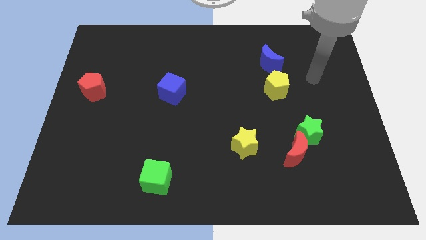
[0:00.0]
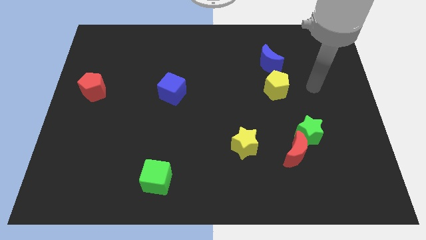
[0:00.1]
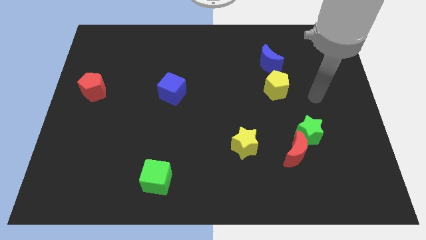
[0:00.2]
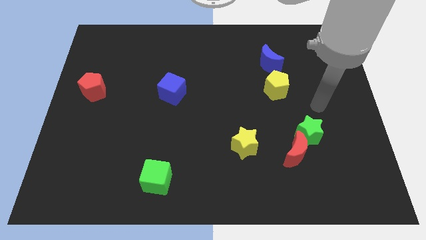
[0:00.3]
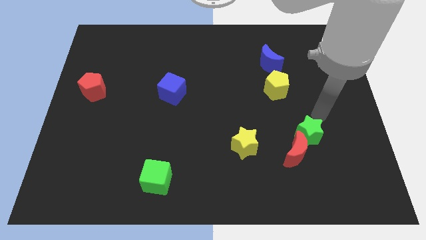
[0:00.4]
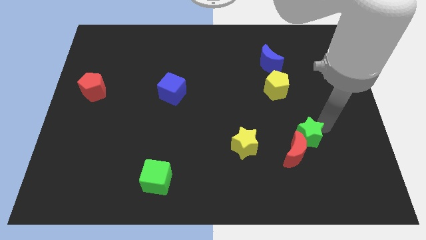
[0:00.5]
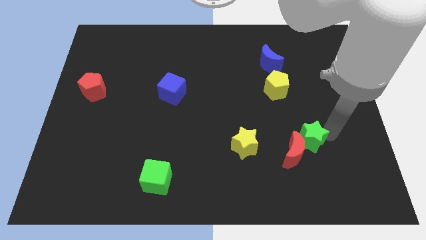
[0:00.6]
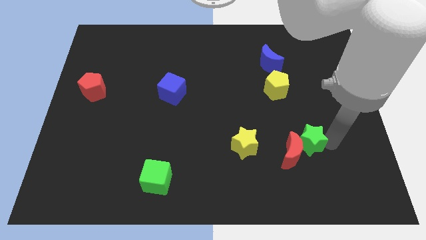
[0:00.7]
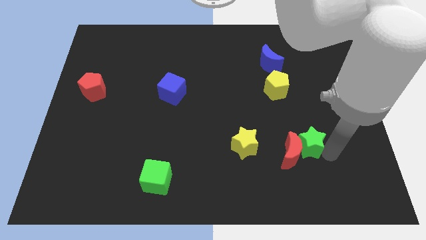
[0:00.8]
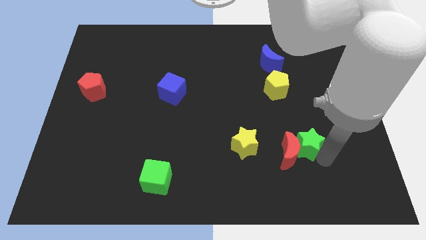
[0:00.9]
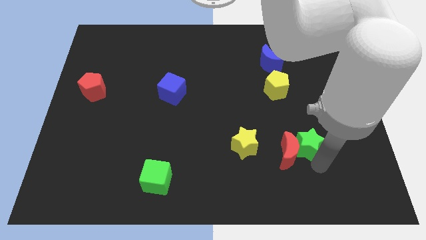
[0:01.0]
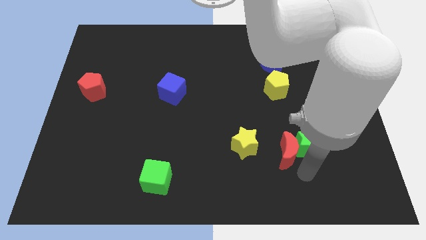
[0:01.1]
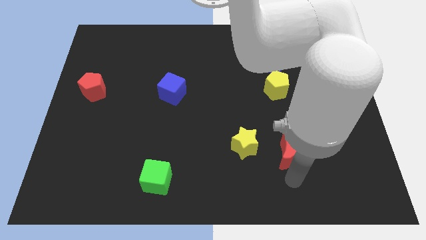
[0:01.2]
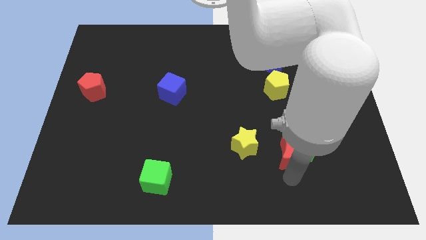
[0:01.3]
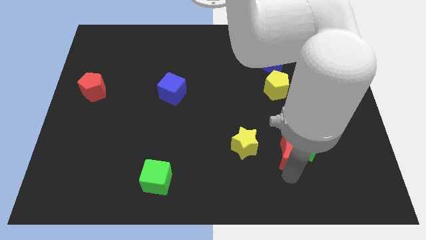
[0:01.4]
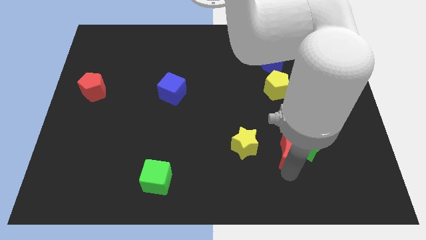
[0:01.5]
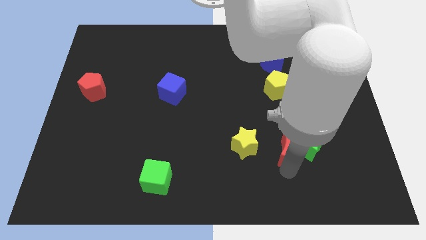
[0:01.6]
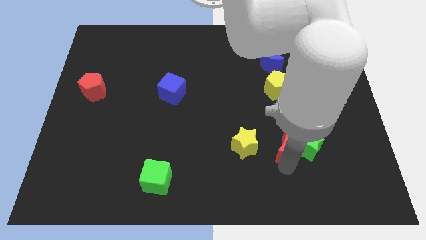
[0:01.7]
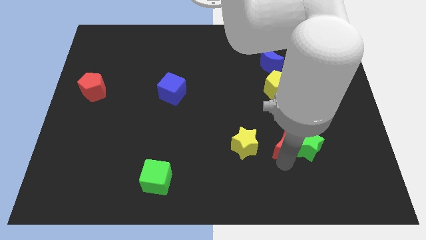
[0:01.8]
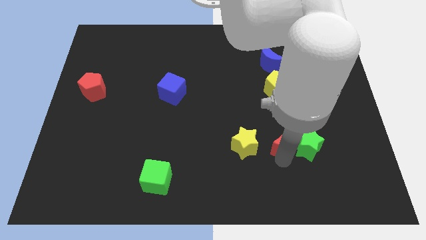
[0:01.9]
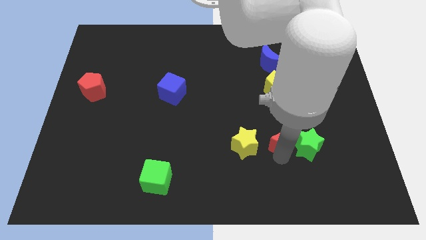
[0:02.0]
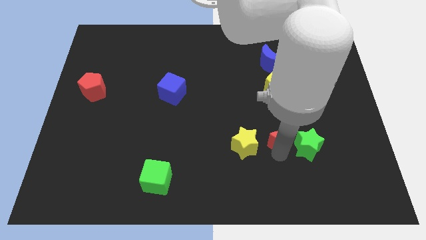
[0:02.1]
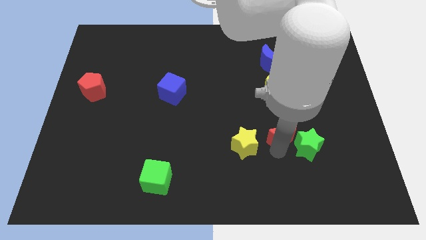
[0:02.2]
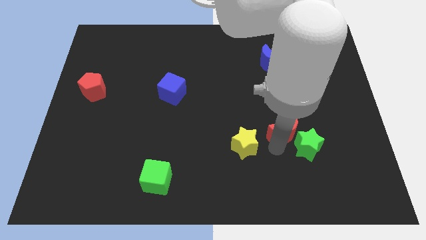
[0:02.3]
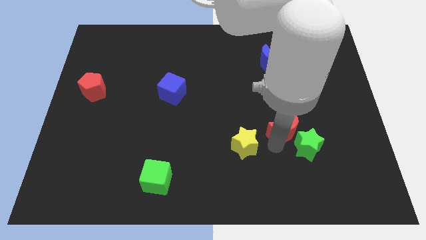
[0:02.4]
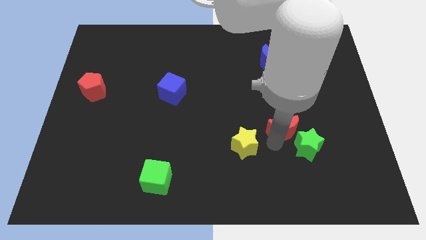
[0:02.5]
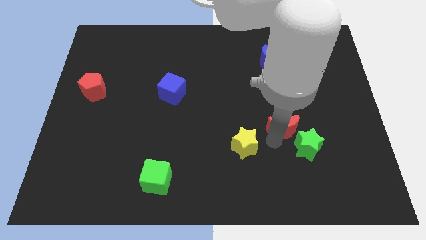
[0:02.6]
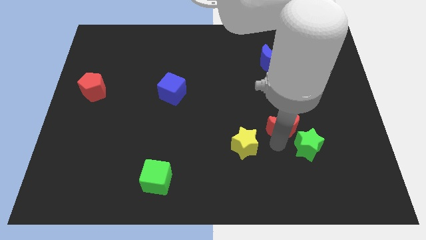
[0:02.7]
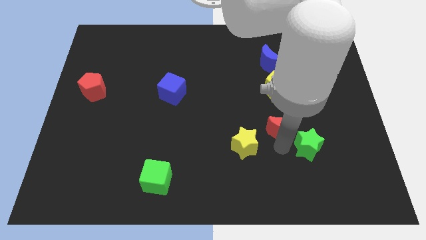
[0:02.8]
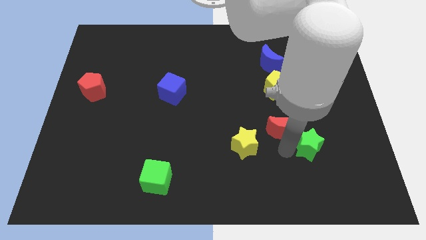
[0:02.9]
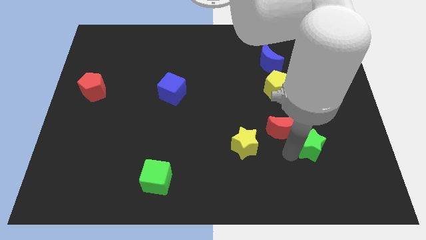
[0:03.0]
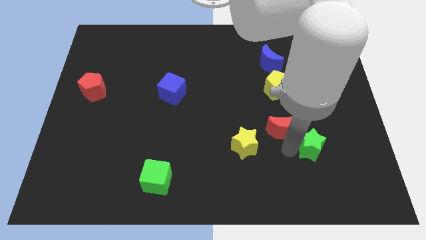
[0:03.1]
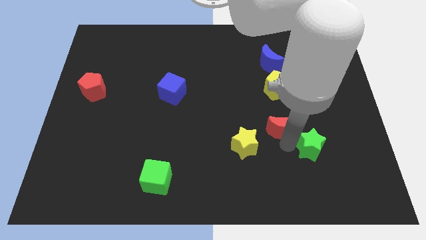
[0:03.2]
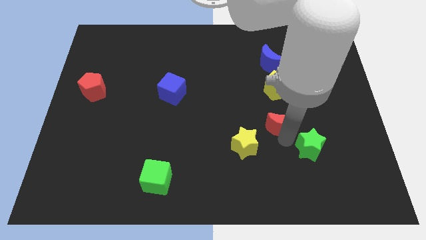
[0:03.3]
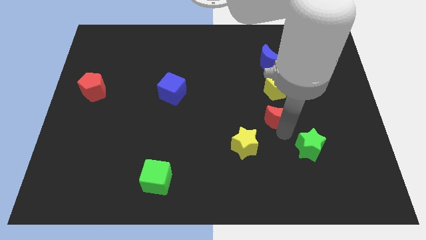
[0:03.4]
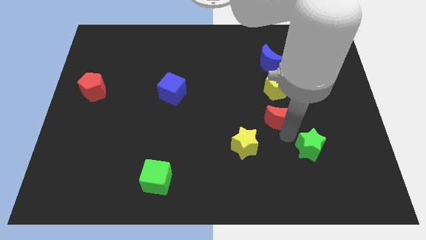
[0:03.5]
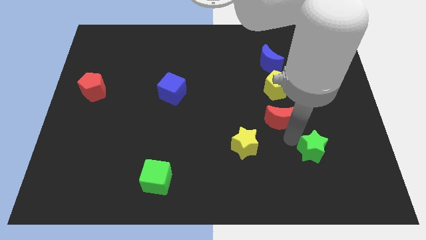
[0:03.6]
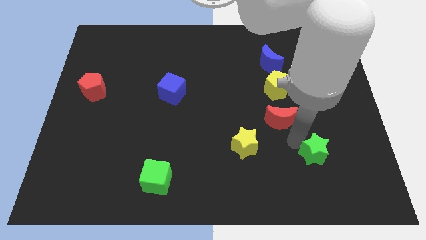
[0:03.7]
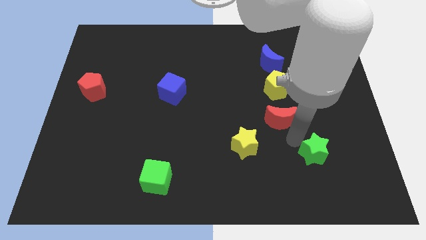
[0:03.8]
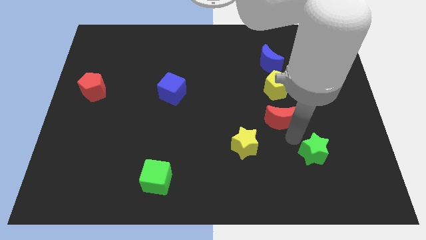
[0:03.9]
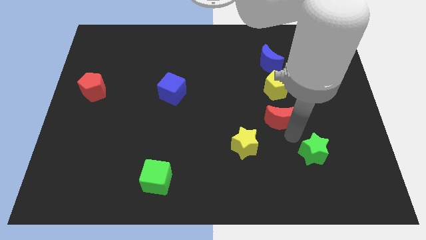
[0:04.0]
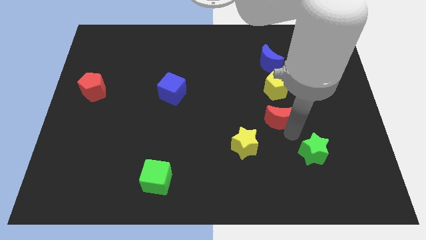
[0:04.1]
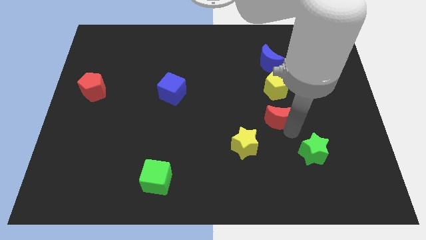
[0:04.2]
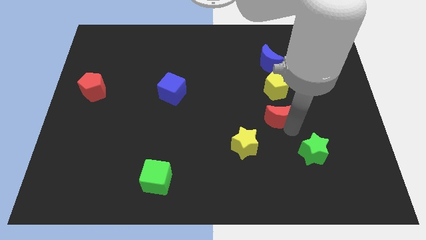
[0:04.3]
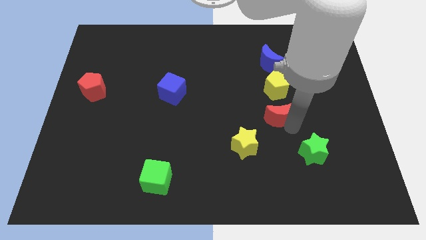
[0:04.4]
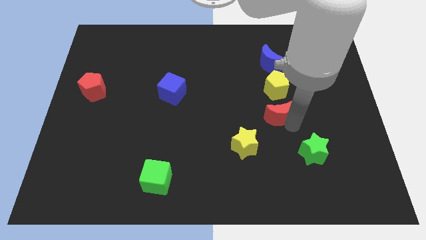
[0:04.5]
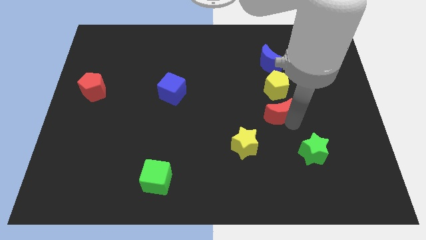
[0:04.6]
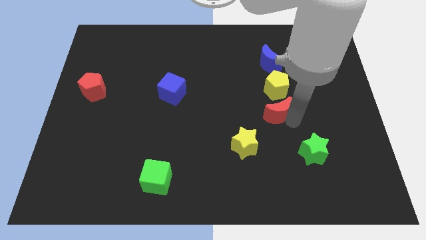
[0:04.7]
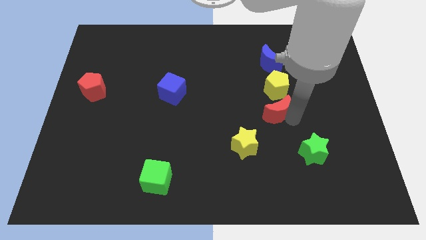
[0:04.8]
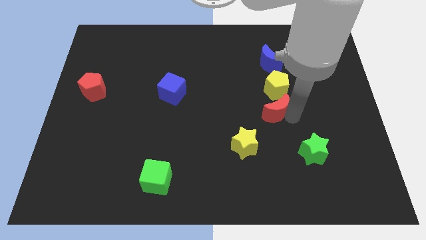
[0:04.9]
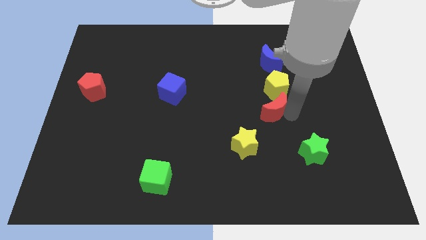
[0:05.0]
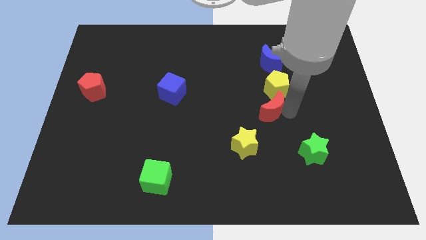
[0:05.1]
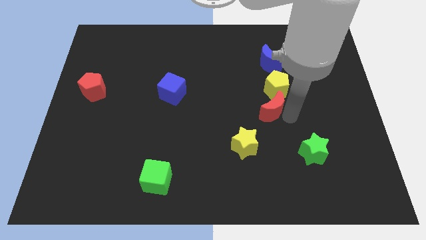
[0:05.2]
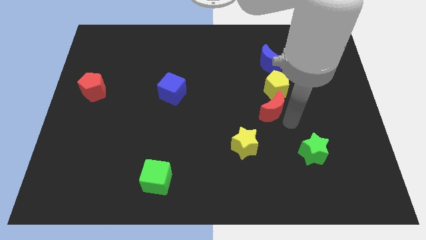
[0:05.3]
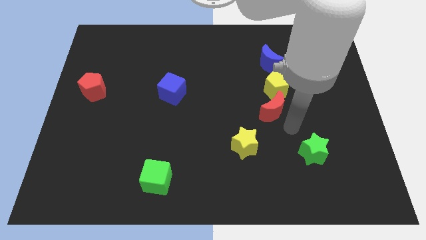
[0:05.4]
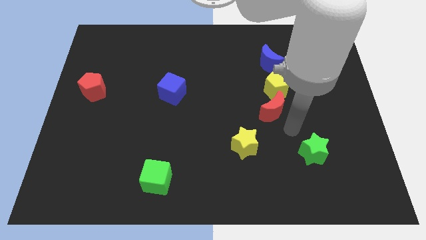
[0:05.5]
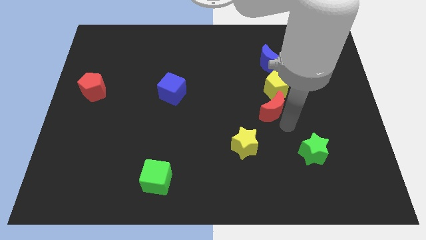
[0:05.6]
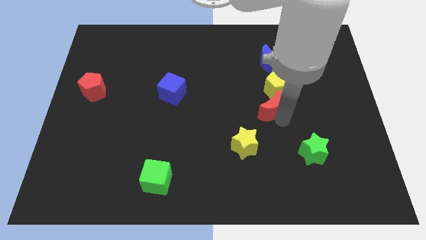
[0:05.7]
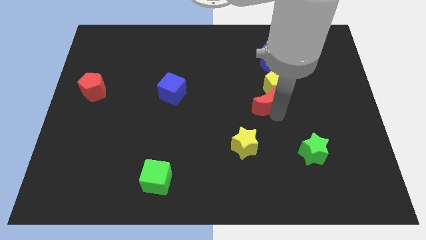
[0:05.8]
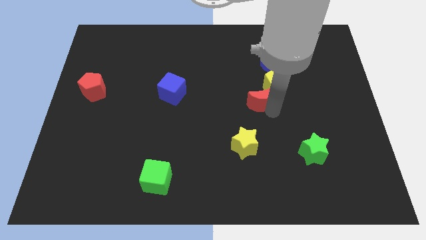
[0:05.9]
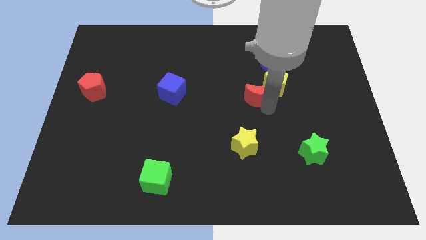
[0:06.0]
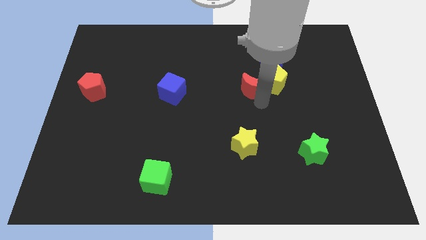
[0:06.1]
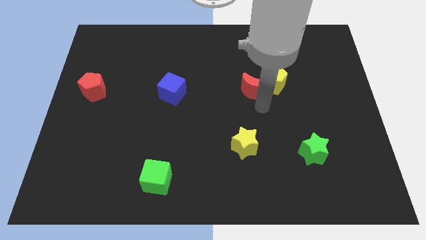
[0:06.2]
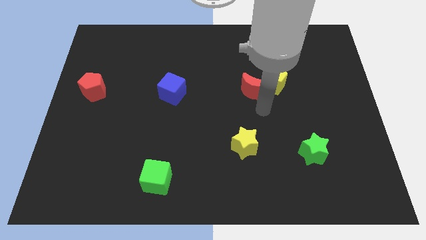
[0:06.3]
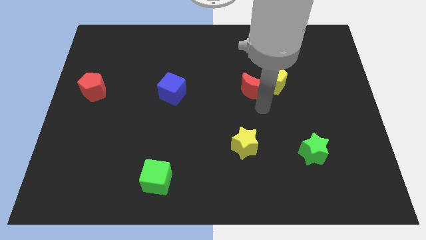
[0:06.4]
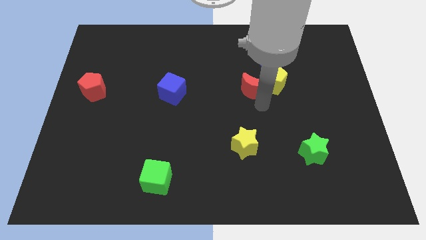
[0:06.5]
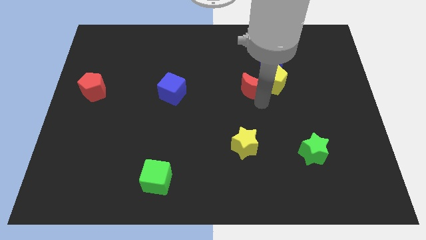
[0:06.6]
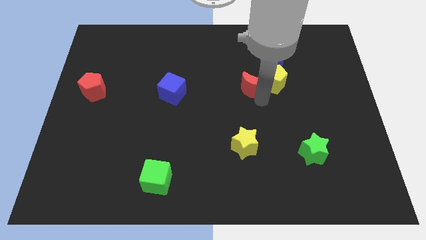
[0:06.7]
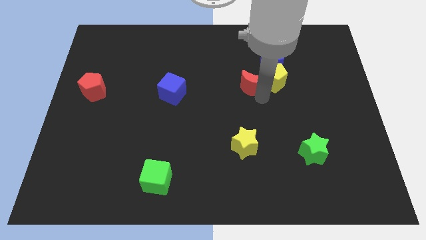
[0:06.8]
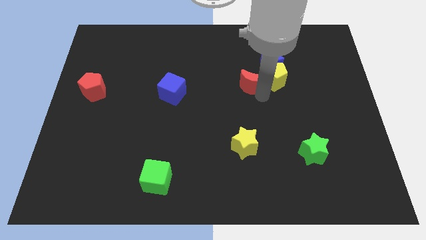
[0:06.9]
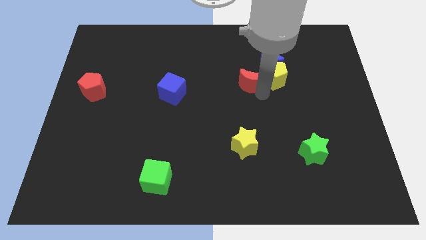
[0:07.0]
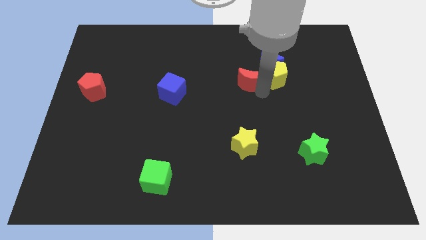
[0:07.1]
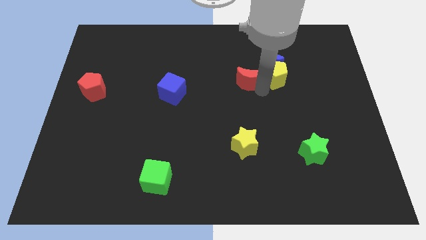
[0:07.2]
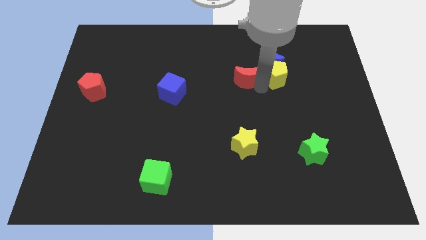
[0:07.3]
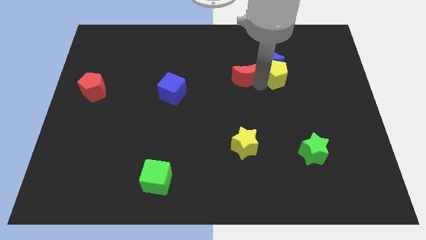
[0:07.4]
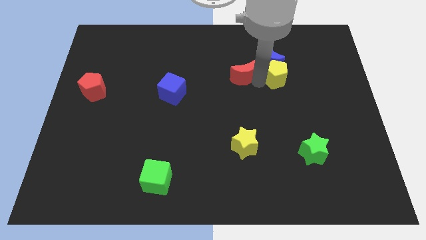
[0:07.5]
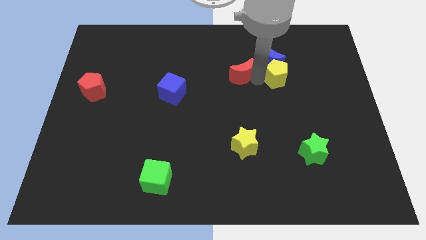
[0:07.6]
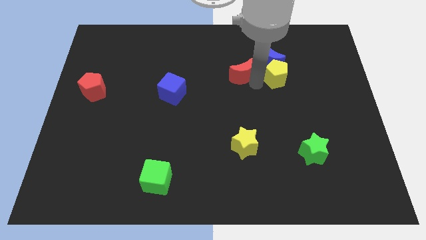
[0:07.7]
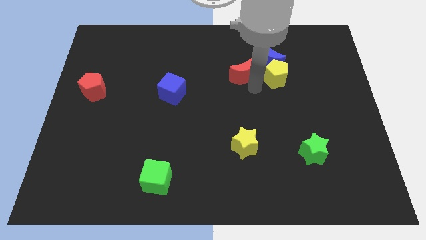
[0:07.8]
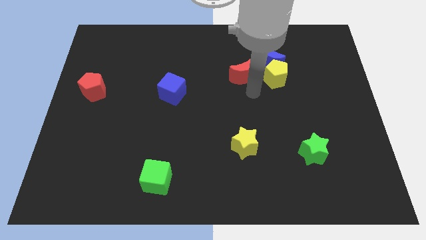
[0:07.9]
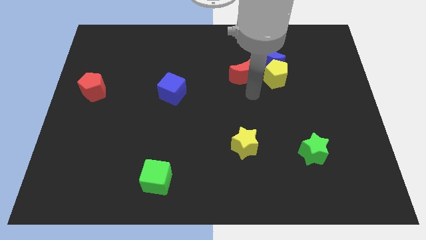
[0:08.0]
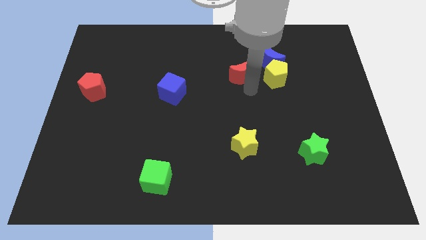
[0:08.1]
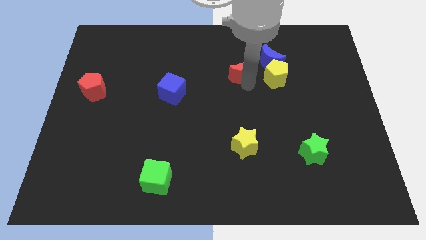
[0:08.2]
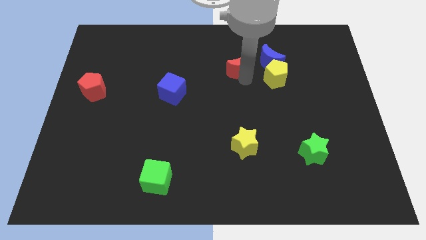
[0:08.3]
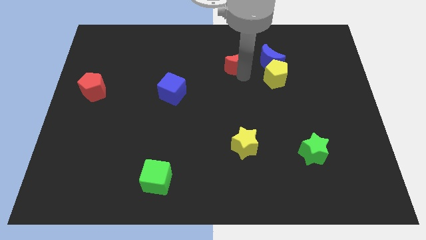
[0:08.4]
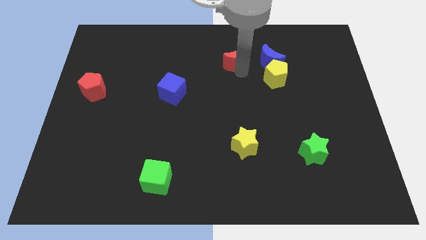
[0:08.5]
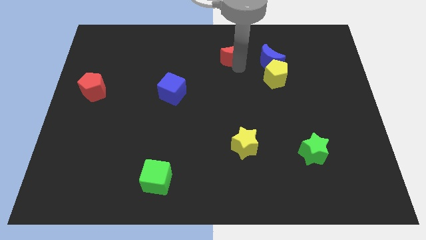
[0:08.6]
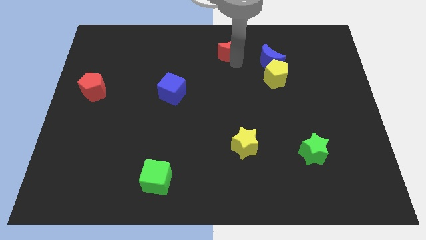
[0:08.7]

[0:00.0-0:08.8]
slide the red moon to the top
